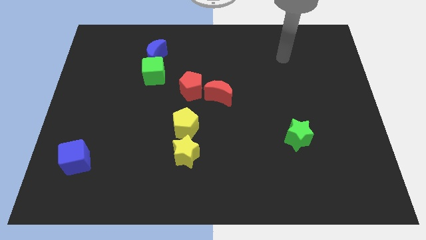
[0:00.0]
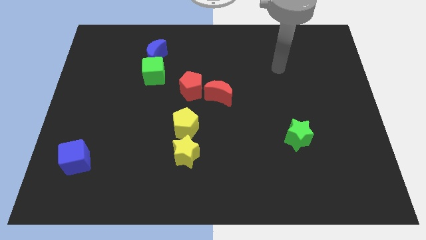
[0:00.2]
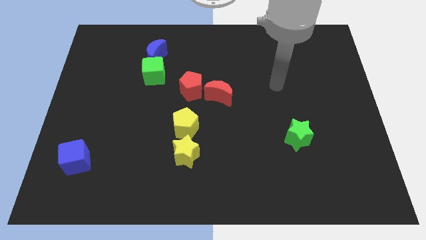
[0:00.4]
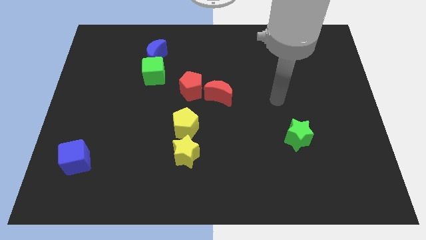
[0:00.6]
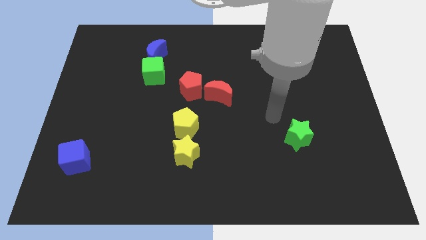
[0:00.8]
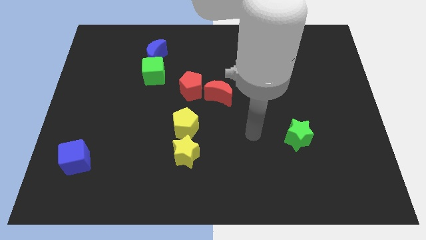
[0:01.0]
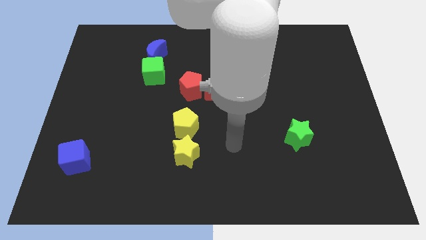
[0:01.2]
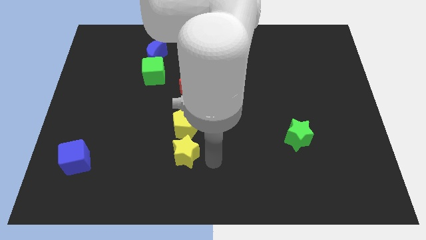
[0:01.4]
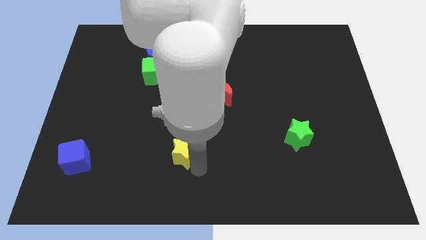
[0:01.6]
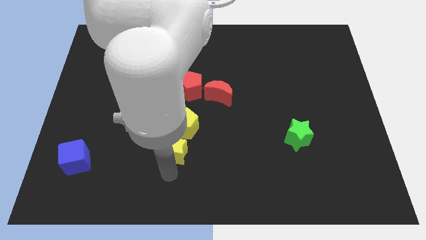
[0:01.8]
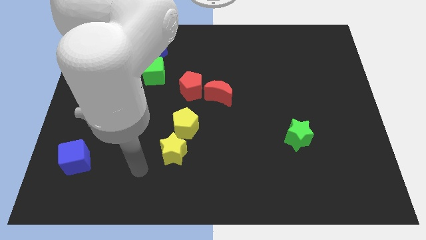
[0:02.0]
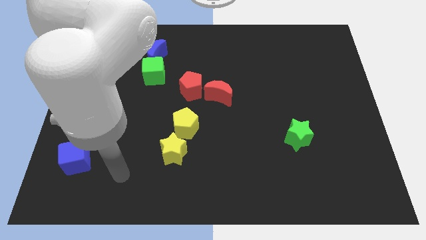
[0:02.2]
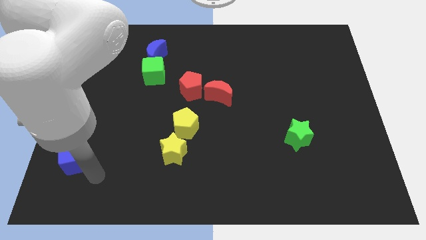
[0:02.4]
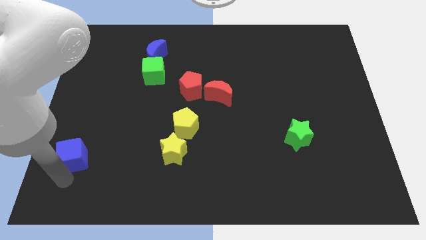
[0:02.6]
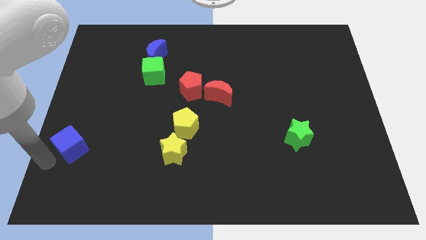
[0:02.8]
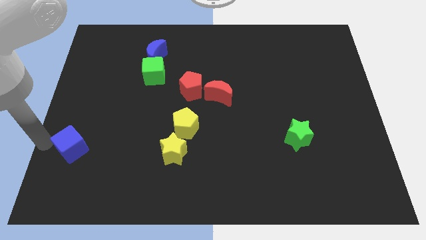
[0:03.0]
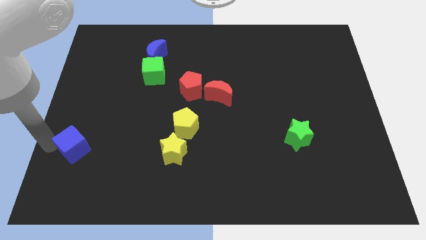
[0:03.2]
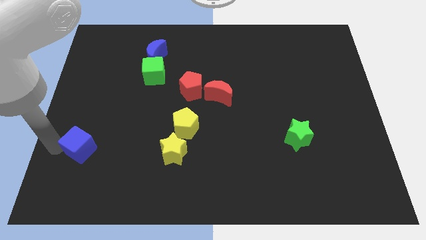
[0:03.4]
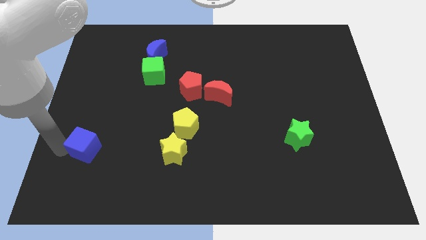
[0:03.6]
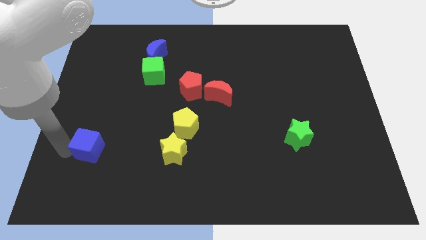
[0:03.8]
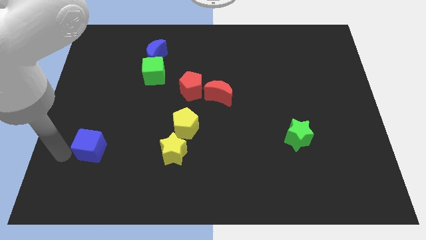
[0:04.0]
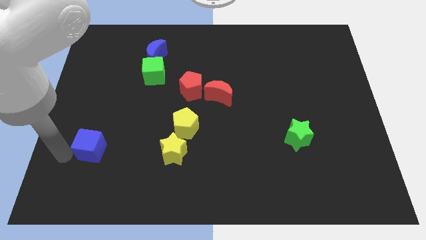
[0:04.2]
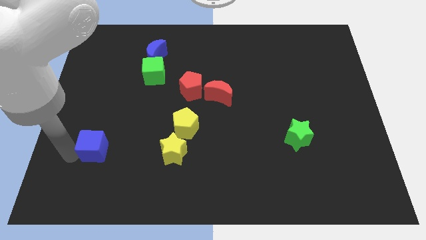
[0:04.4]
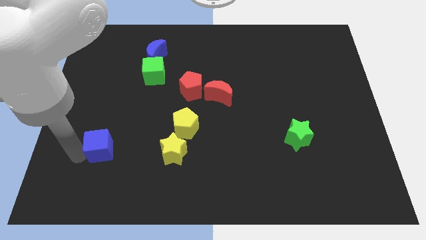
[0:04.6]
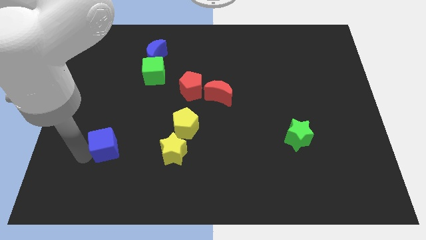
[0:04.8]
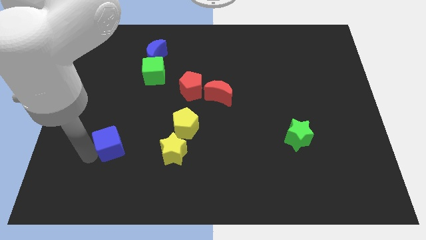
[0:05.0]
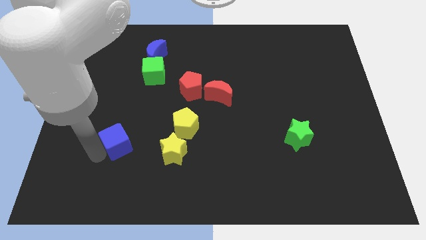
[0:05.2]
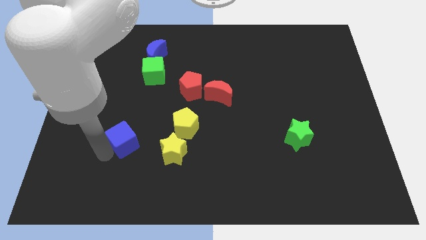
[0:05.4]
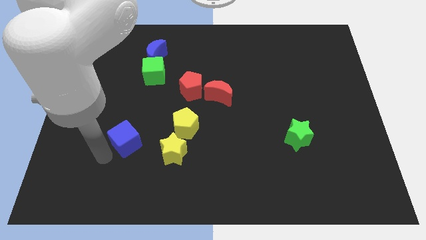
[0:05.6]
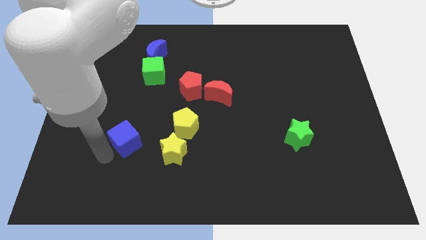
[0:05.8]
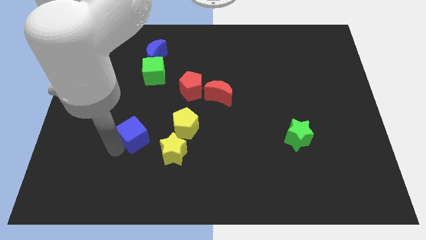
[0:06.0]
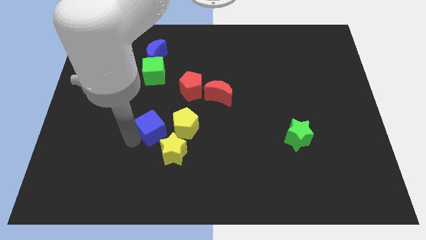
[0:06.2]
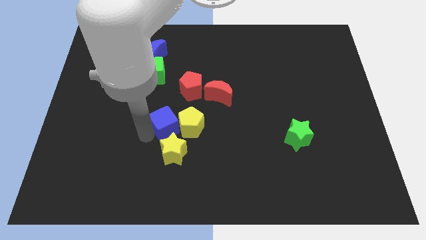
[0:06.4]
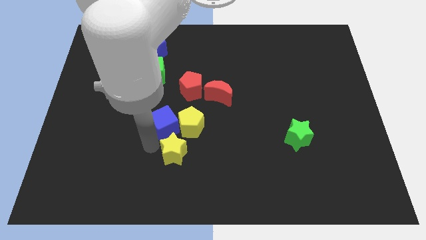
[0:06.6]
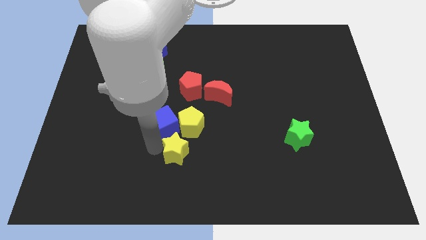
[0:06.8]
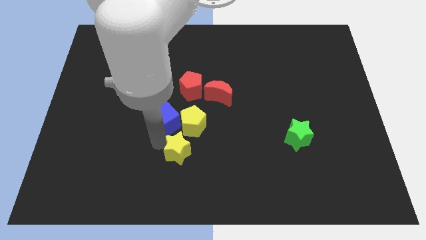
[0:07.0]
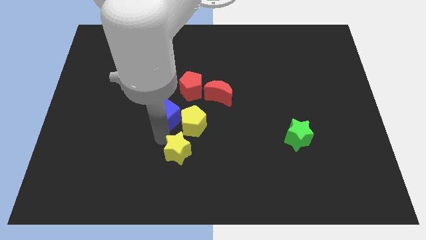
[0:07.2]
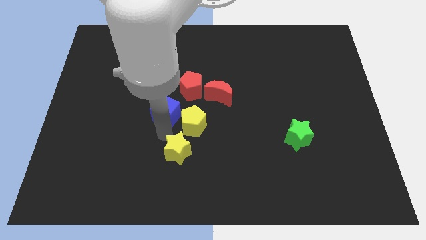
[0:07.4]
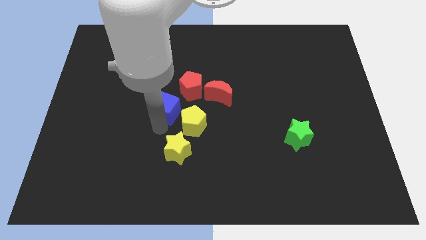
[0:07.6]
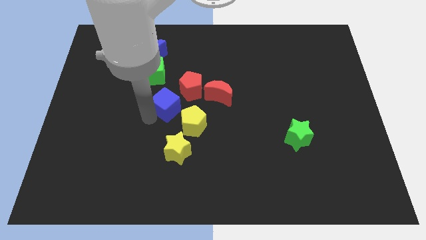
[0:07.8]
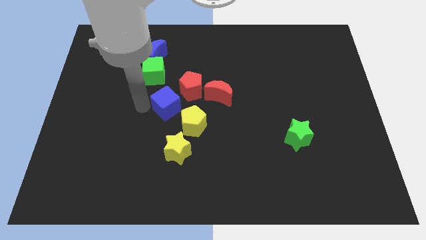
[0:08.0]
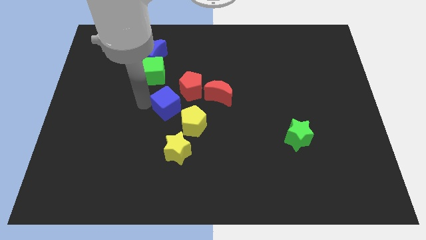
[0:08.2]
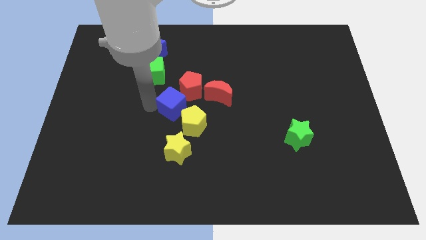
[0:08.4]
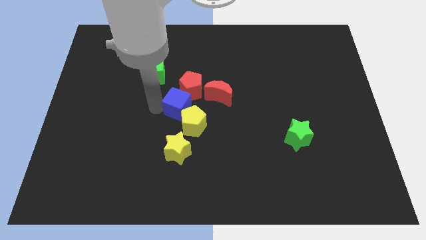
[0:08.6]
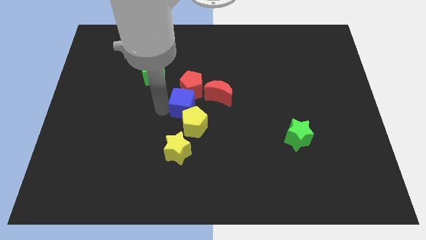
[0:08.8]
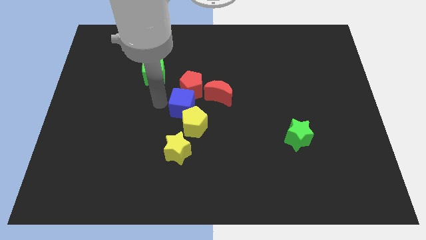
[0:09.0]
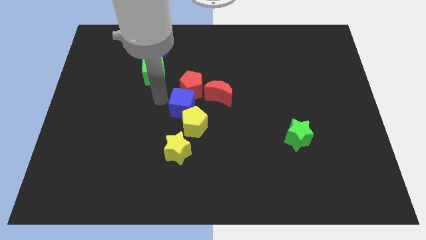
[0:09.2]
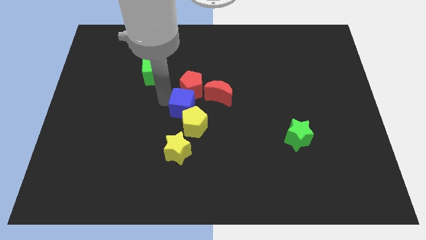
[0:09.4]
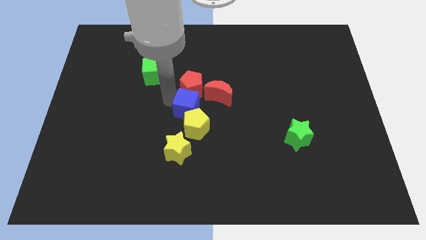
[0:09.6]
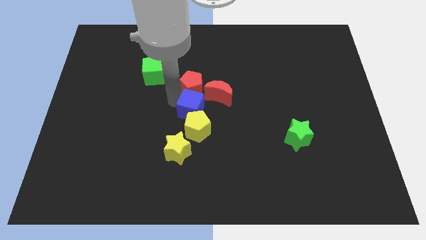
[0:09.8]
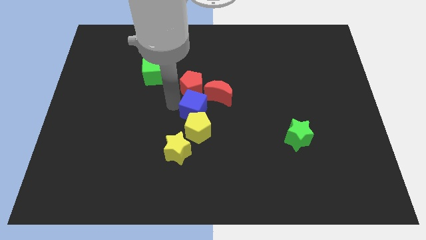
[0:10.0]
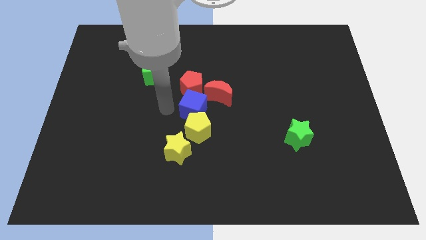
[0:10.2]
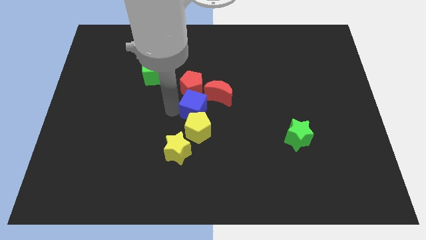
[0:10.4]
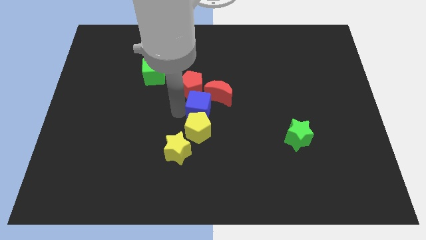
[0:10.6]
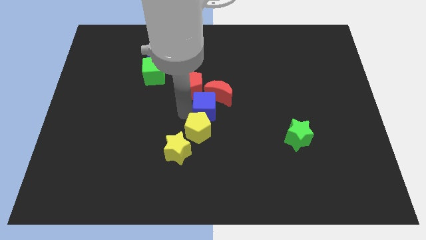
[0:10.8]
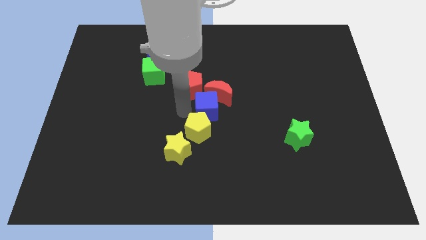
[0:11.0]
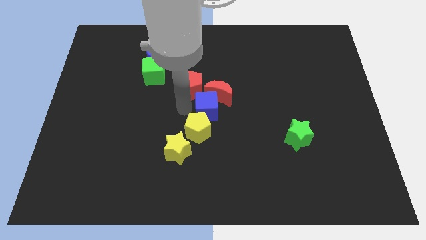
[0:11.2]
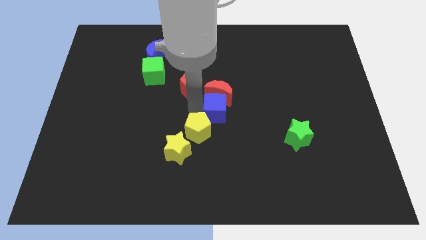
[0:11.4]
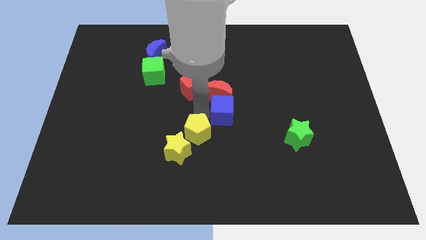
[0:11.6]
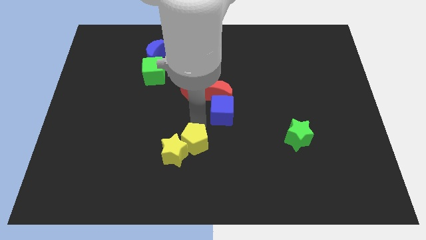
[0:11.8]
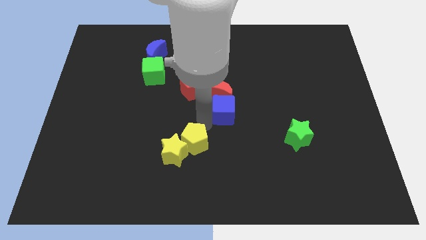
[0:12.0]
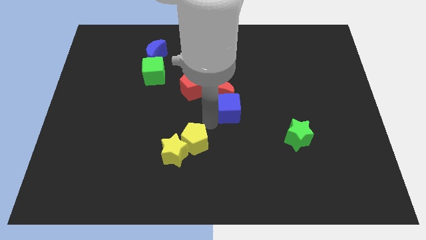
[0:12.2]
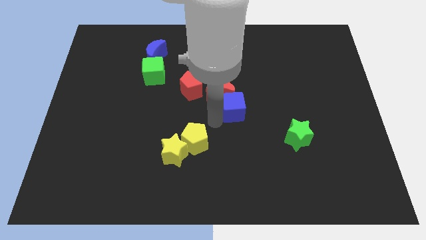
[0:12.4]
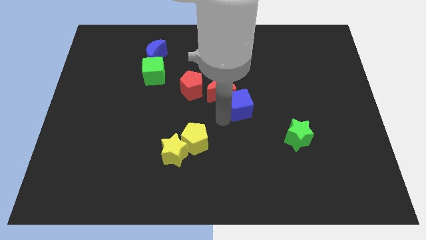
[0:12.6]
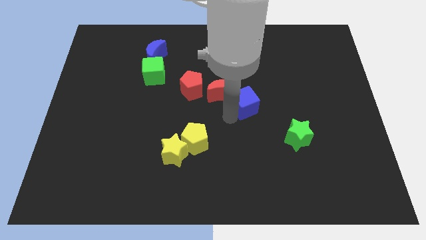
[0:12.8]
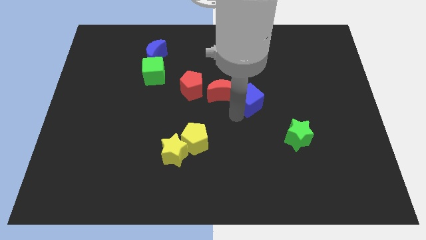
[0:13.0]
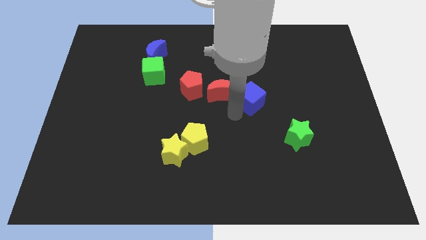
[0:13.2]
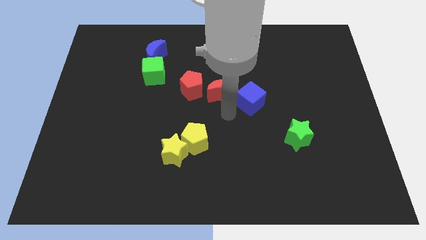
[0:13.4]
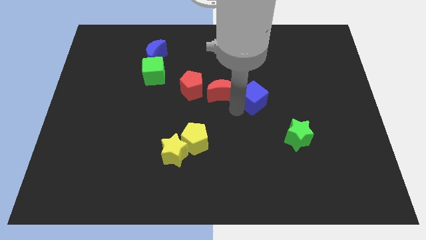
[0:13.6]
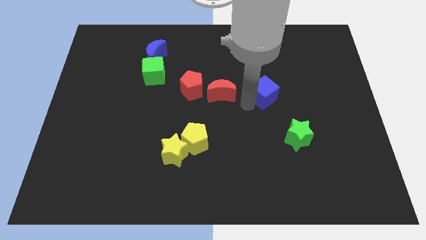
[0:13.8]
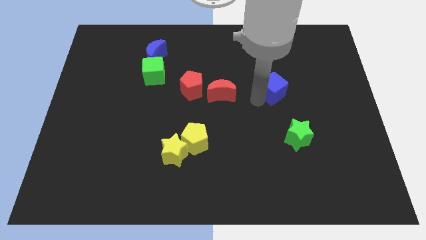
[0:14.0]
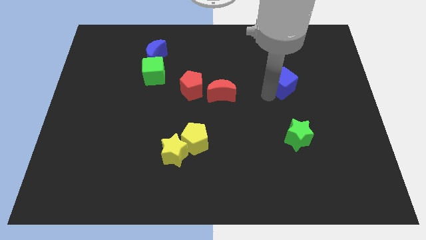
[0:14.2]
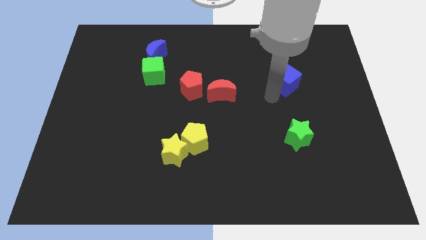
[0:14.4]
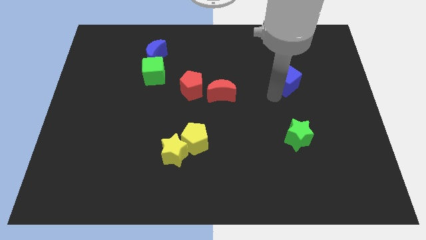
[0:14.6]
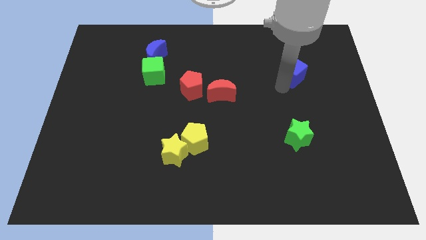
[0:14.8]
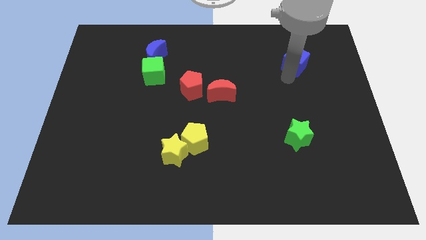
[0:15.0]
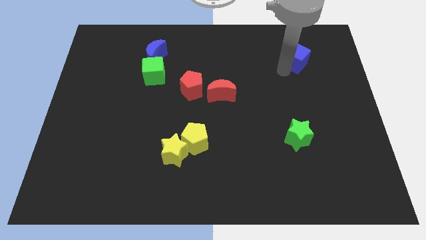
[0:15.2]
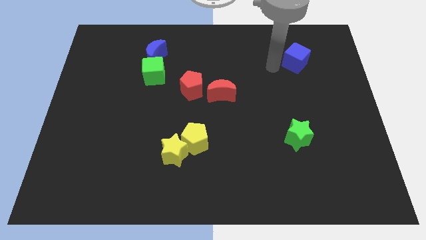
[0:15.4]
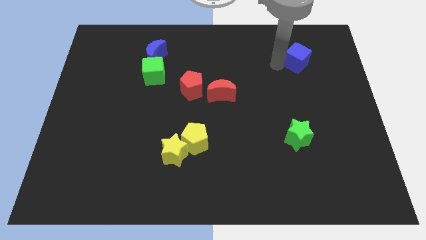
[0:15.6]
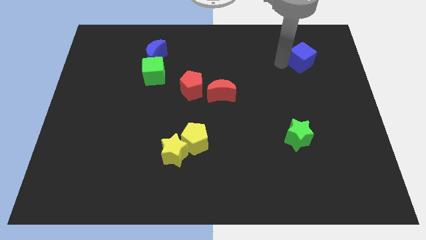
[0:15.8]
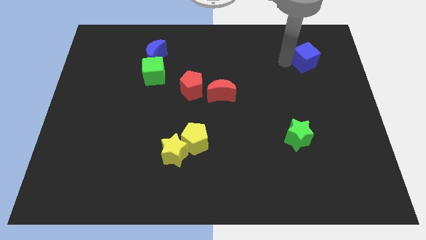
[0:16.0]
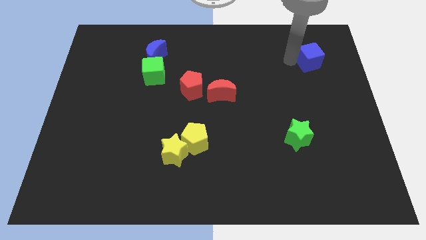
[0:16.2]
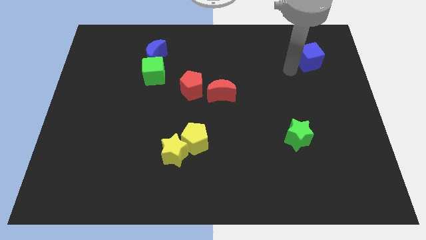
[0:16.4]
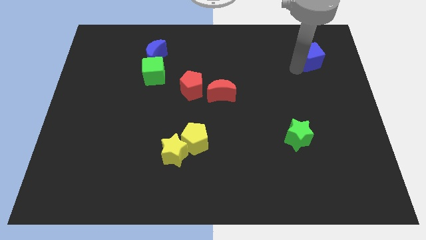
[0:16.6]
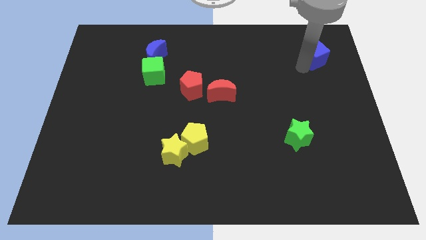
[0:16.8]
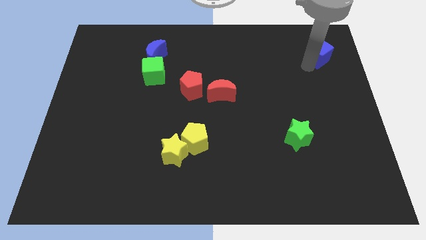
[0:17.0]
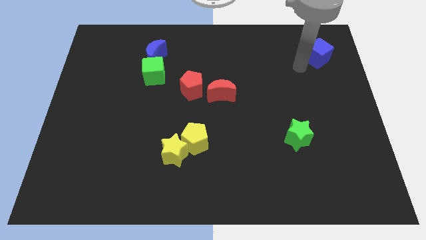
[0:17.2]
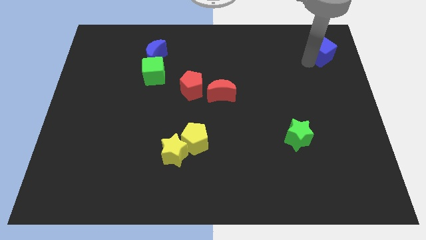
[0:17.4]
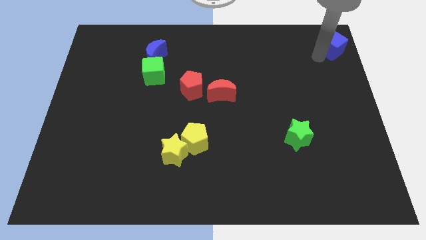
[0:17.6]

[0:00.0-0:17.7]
put the blue cube to the top right of the board
